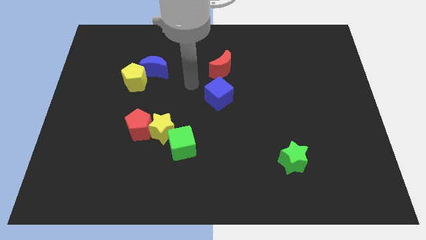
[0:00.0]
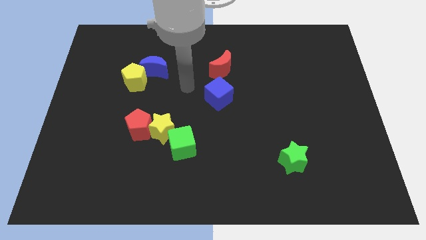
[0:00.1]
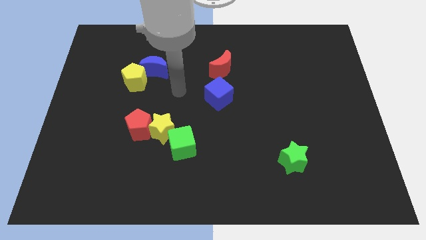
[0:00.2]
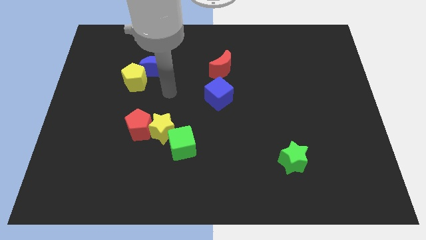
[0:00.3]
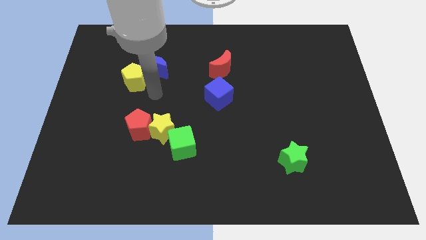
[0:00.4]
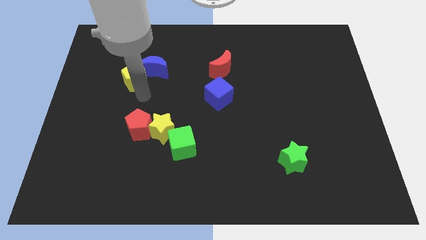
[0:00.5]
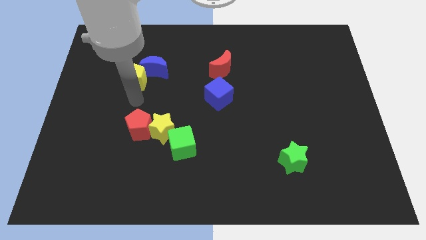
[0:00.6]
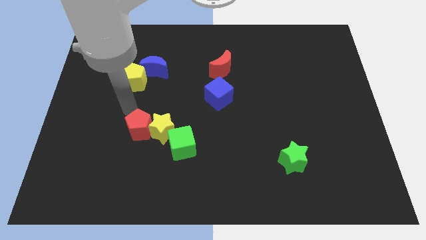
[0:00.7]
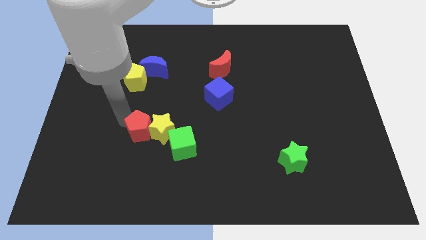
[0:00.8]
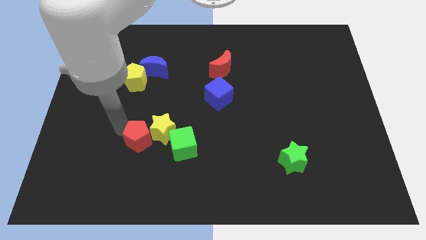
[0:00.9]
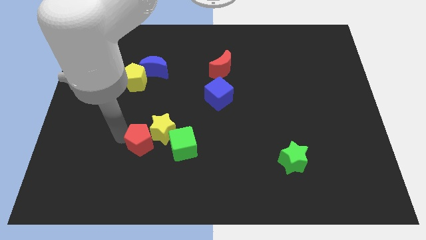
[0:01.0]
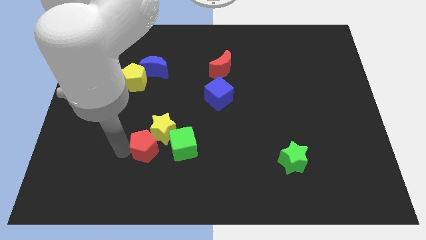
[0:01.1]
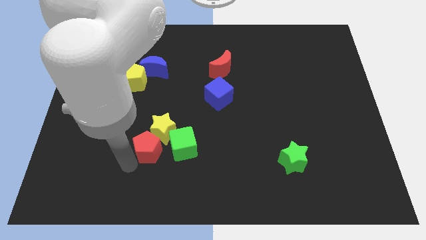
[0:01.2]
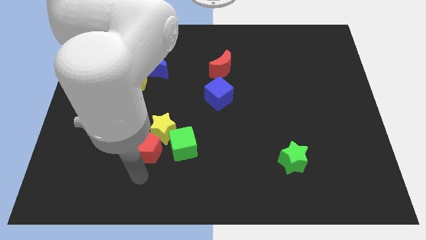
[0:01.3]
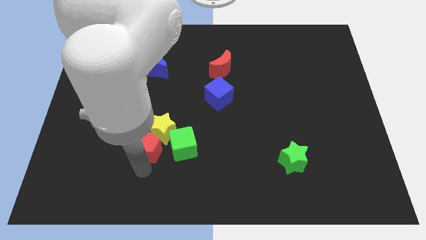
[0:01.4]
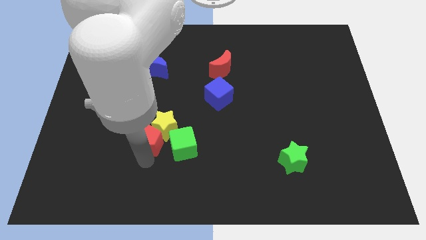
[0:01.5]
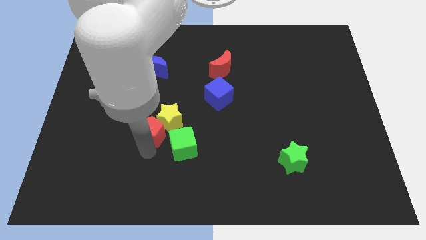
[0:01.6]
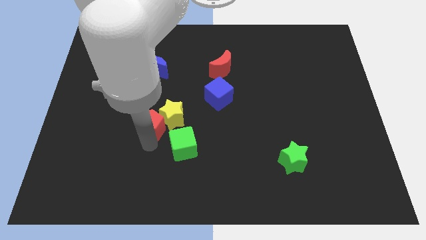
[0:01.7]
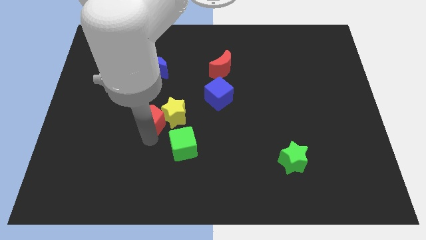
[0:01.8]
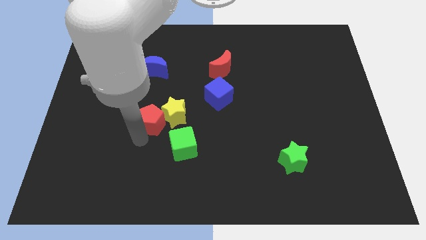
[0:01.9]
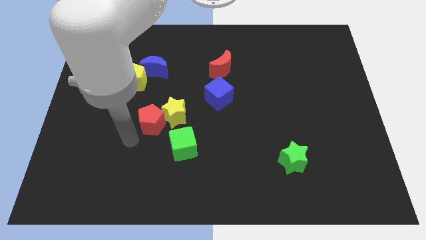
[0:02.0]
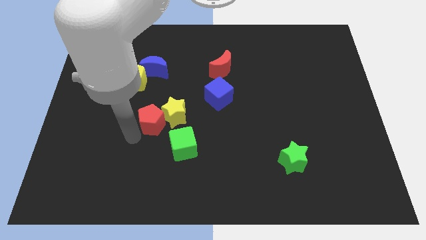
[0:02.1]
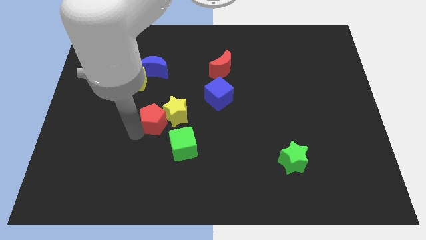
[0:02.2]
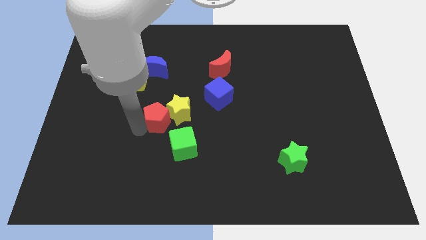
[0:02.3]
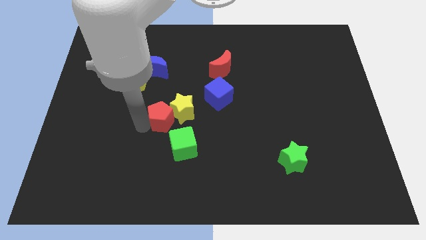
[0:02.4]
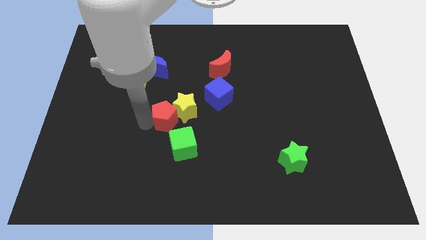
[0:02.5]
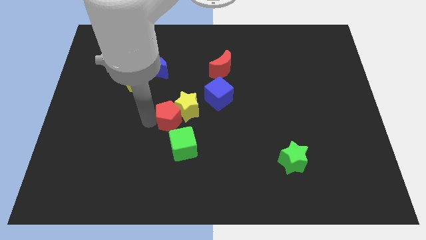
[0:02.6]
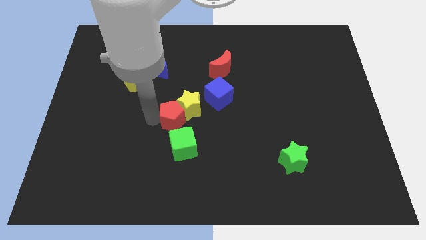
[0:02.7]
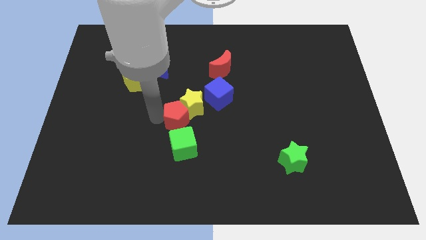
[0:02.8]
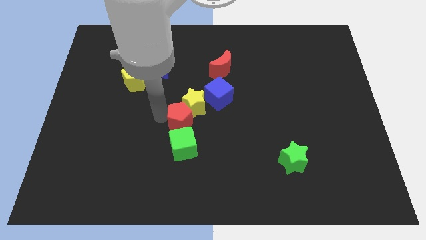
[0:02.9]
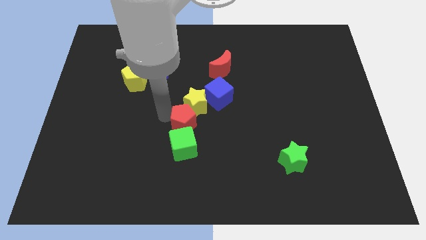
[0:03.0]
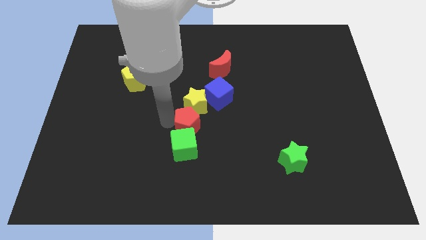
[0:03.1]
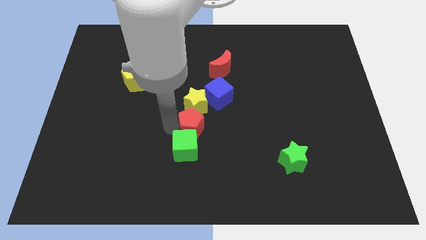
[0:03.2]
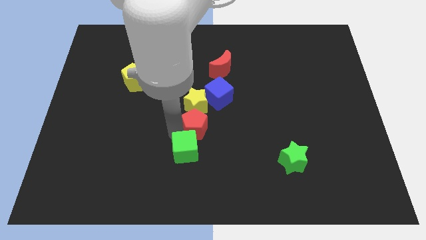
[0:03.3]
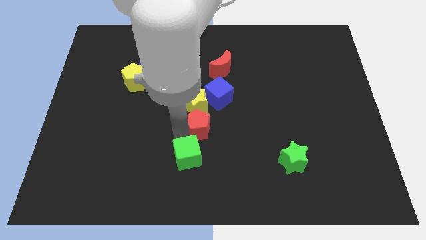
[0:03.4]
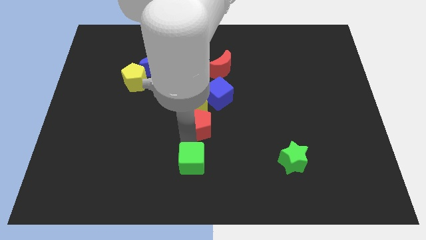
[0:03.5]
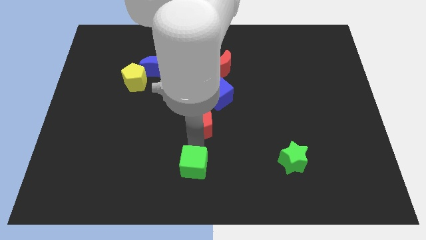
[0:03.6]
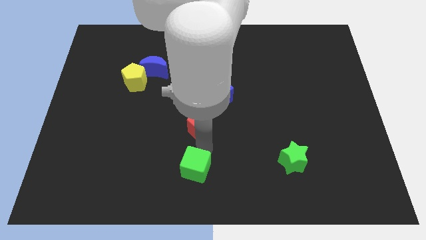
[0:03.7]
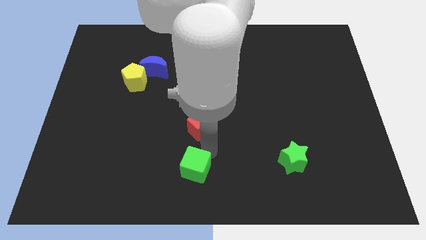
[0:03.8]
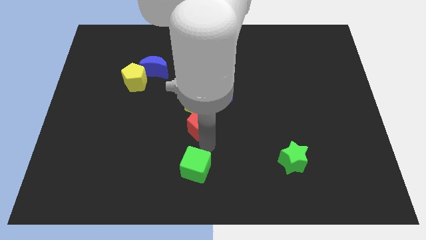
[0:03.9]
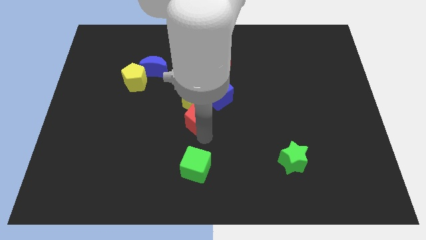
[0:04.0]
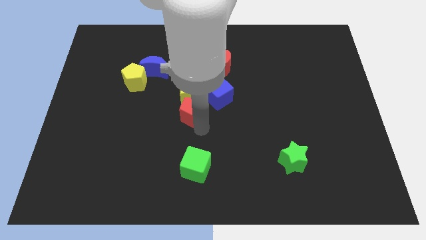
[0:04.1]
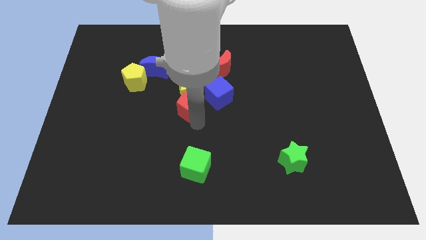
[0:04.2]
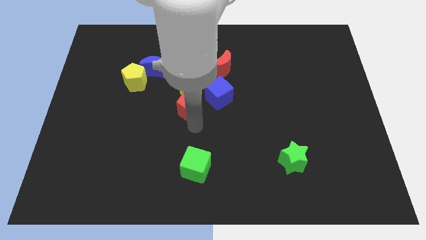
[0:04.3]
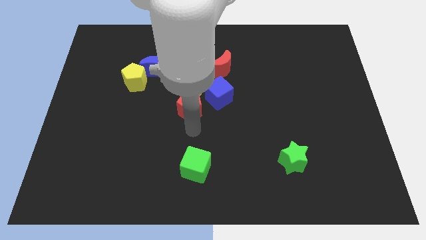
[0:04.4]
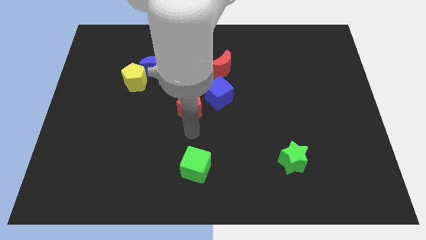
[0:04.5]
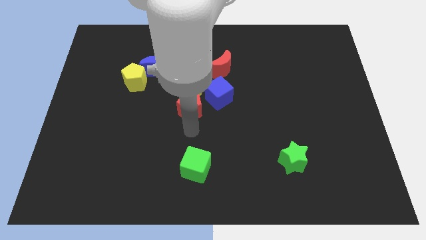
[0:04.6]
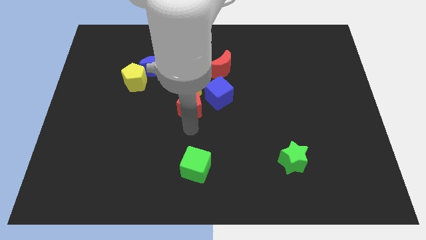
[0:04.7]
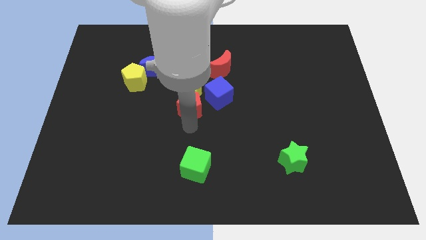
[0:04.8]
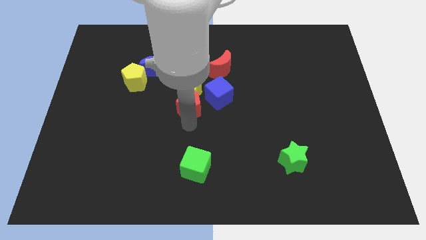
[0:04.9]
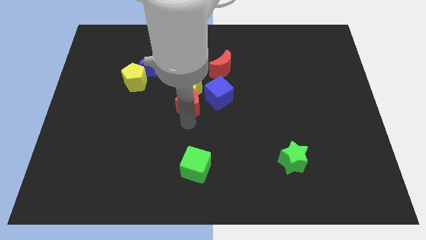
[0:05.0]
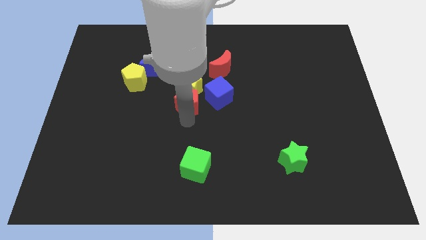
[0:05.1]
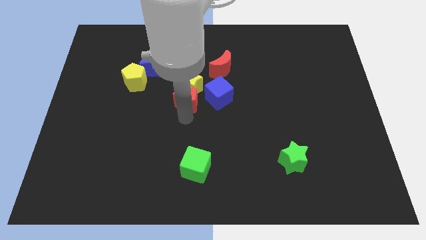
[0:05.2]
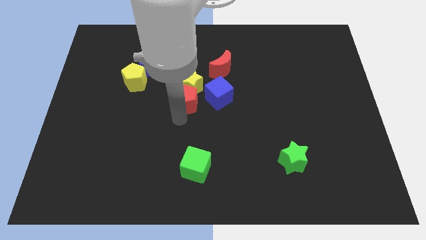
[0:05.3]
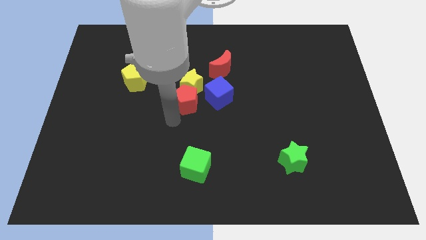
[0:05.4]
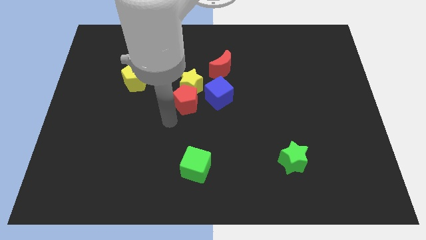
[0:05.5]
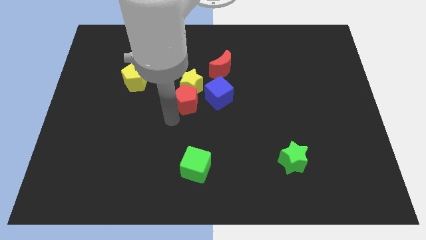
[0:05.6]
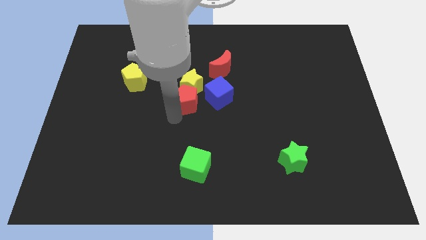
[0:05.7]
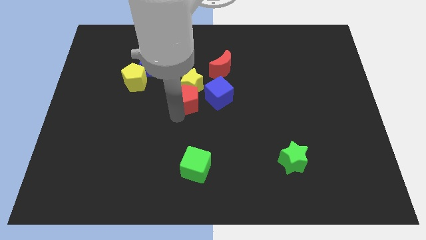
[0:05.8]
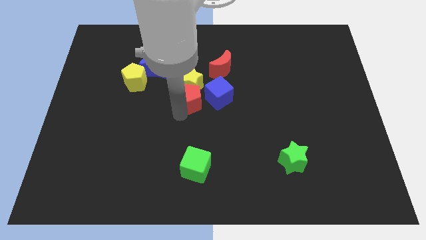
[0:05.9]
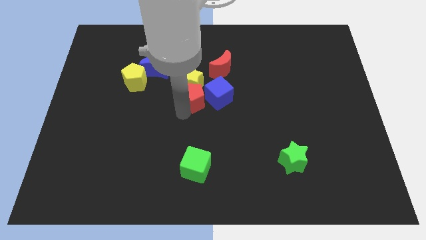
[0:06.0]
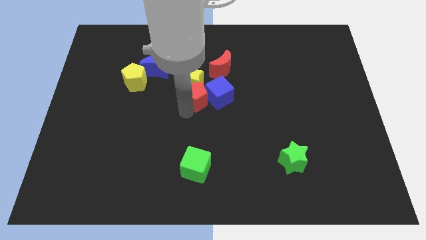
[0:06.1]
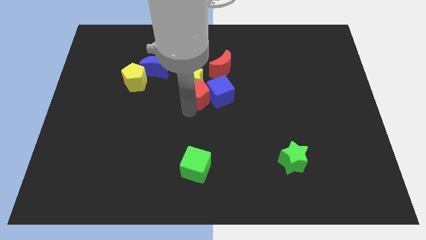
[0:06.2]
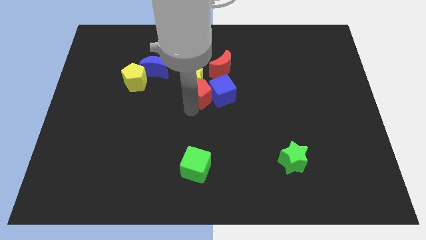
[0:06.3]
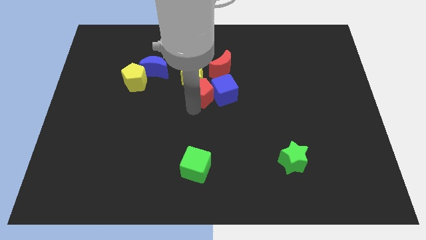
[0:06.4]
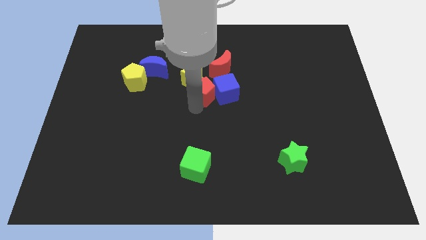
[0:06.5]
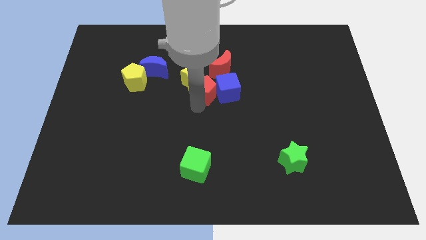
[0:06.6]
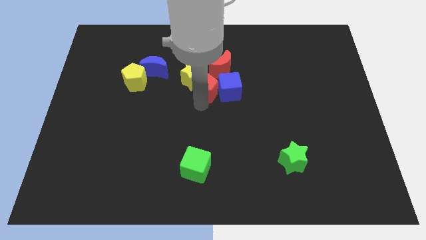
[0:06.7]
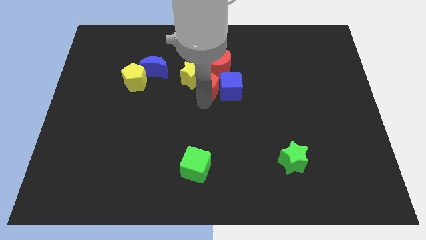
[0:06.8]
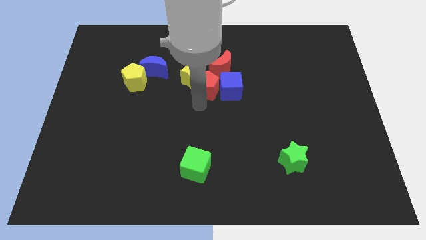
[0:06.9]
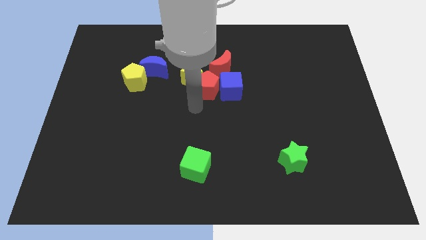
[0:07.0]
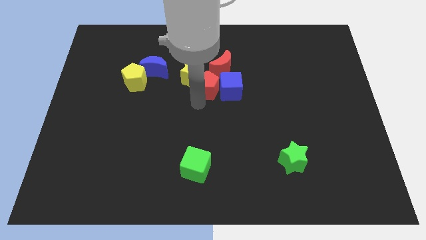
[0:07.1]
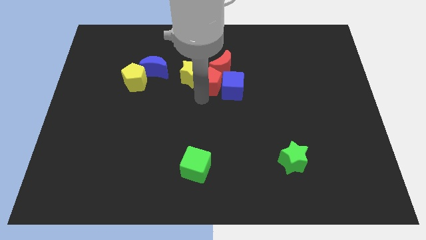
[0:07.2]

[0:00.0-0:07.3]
move the red pentagon next to the red moon
